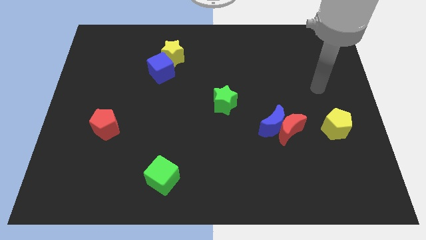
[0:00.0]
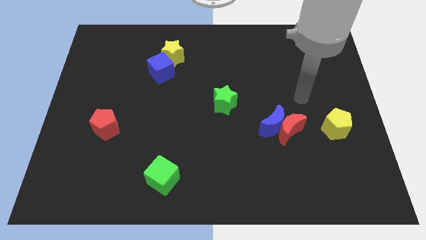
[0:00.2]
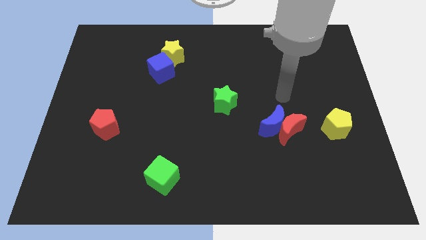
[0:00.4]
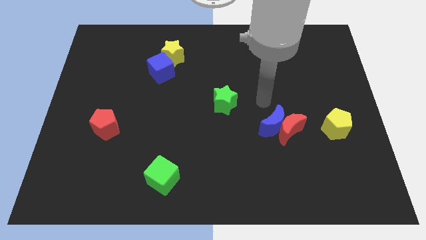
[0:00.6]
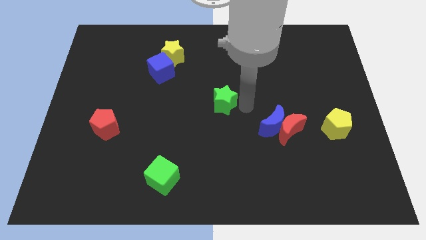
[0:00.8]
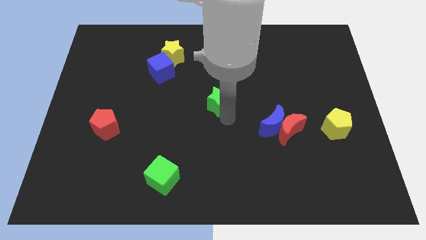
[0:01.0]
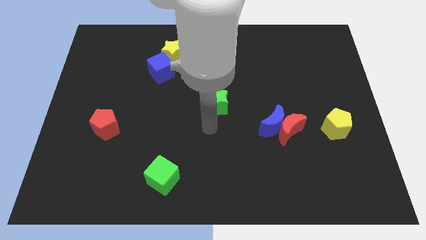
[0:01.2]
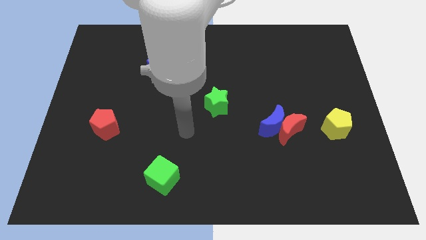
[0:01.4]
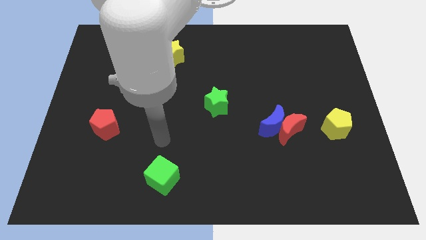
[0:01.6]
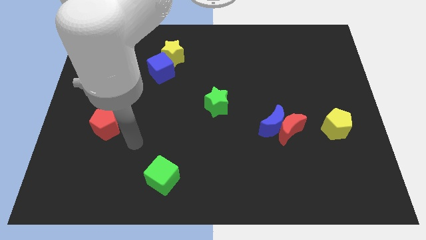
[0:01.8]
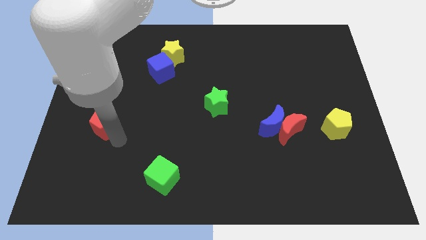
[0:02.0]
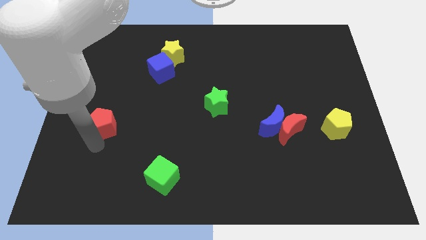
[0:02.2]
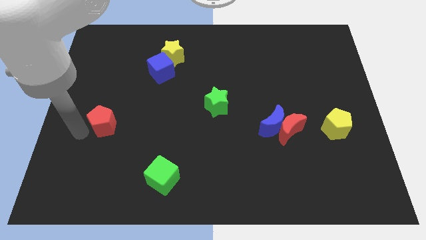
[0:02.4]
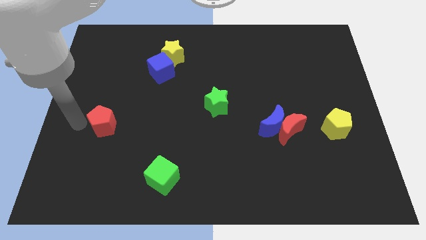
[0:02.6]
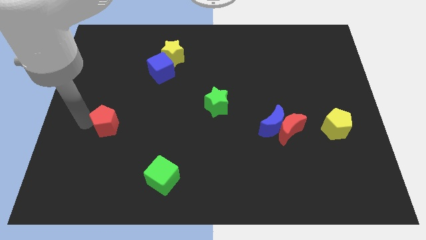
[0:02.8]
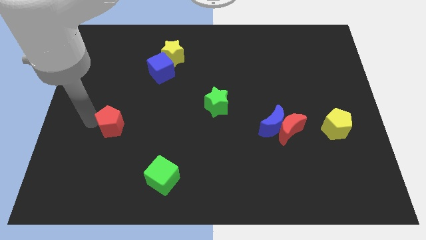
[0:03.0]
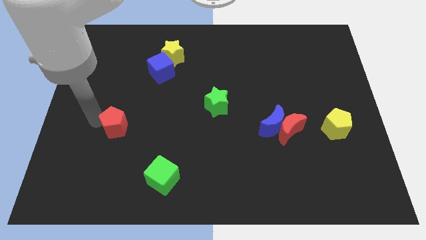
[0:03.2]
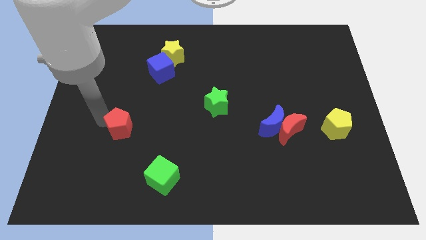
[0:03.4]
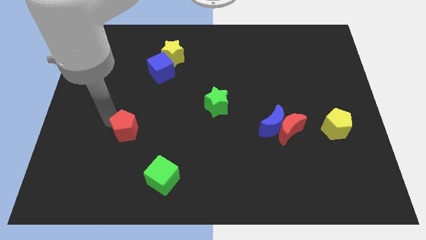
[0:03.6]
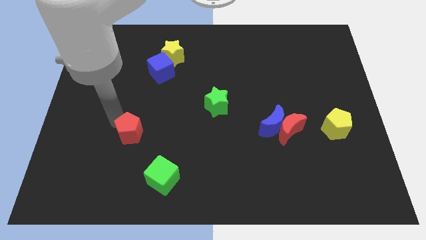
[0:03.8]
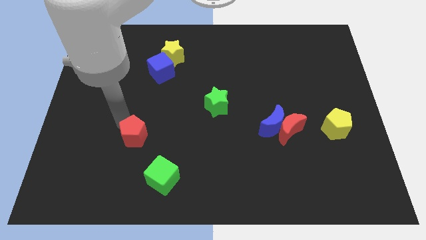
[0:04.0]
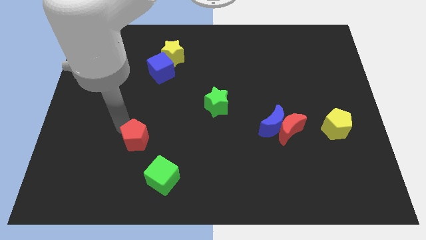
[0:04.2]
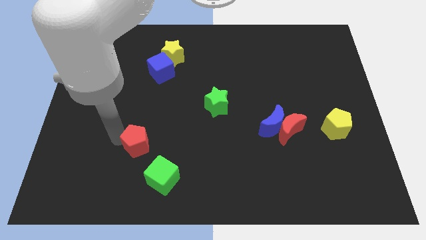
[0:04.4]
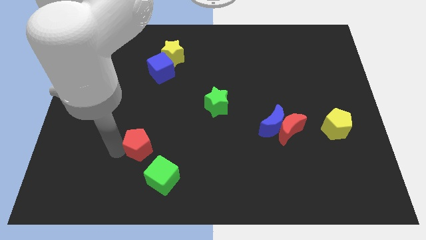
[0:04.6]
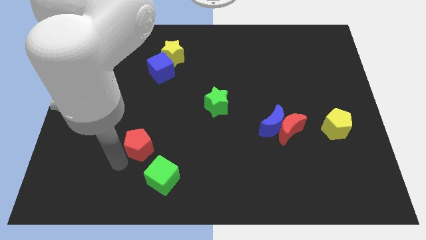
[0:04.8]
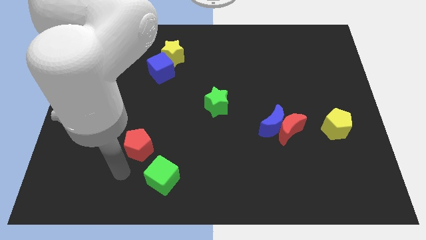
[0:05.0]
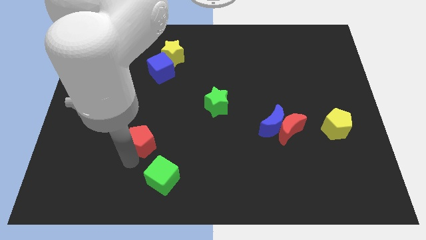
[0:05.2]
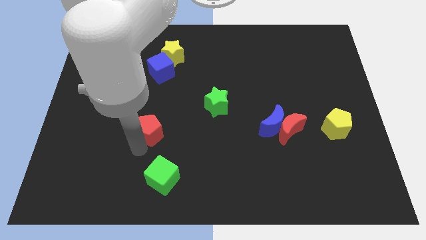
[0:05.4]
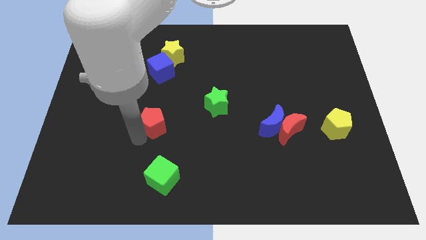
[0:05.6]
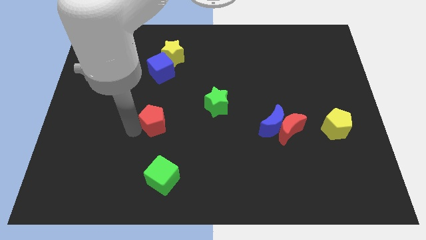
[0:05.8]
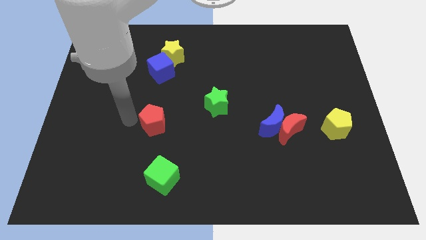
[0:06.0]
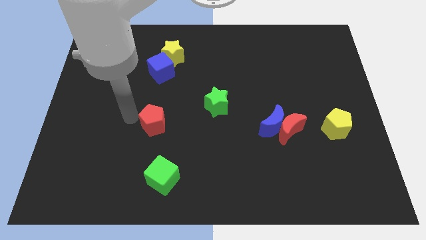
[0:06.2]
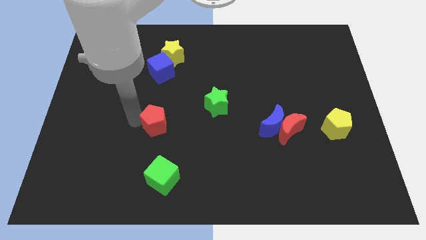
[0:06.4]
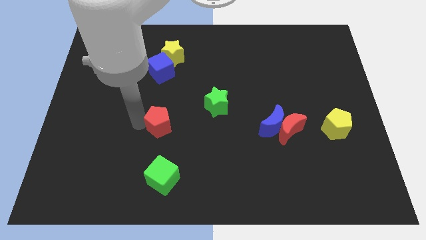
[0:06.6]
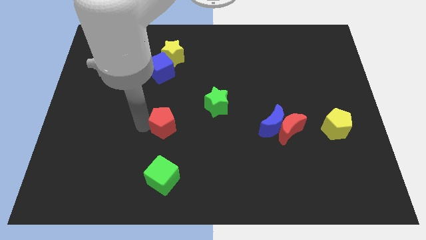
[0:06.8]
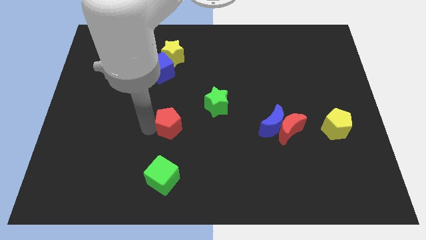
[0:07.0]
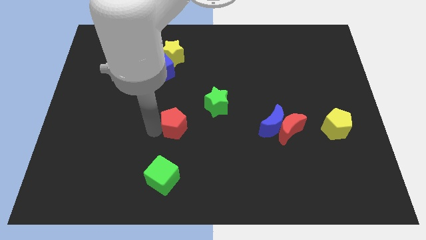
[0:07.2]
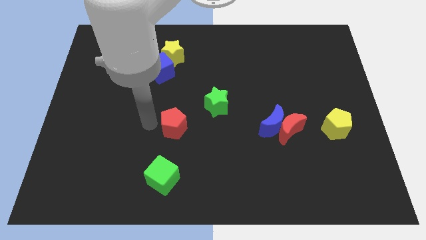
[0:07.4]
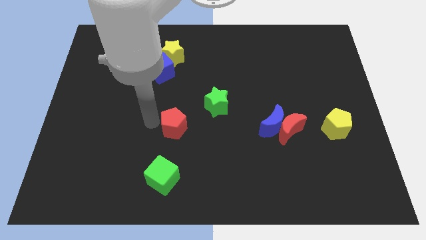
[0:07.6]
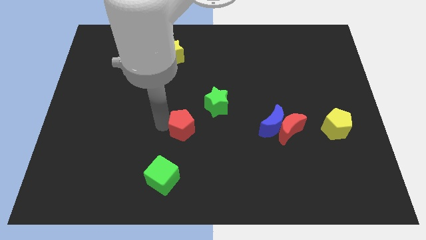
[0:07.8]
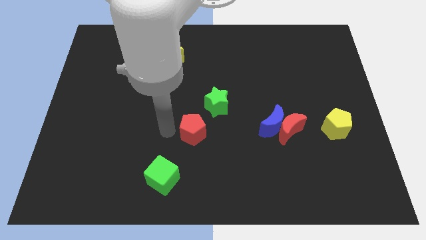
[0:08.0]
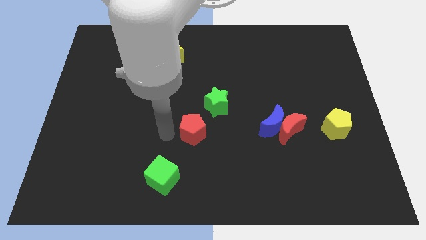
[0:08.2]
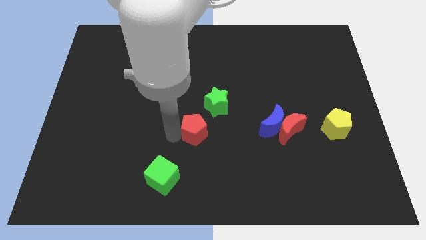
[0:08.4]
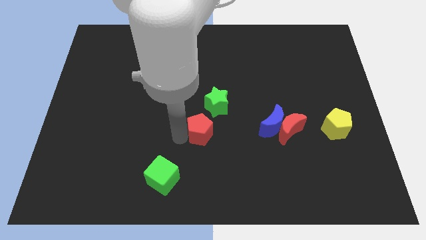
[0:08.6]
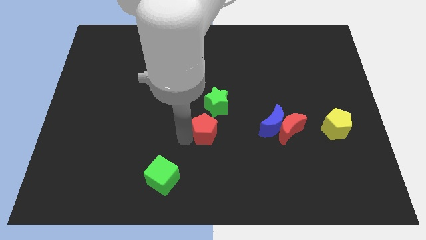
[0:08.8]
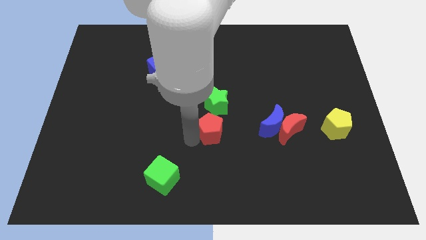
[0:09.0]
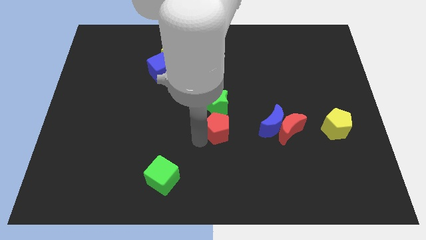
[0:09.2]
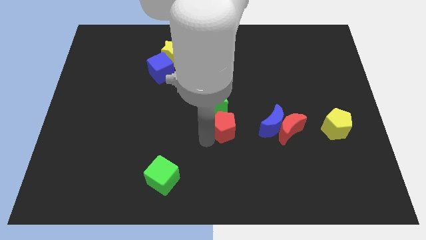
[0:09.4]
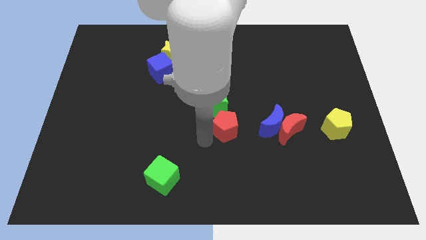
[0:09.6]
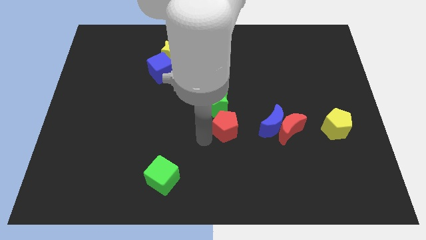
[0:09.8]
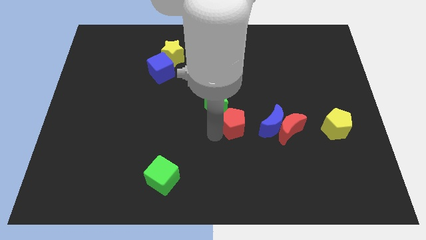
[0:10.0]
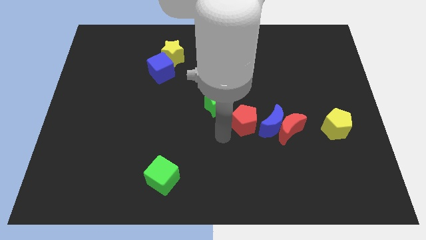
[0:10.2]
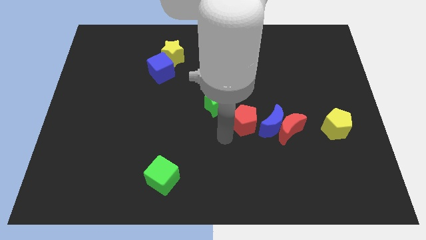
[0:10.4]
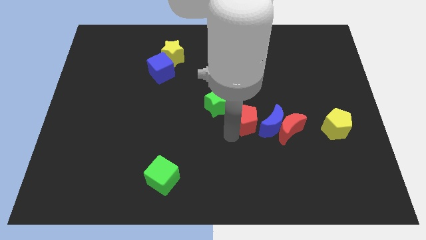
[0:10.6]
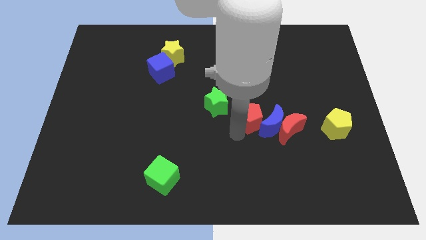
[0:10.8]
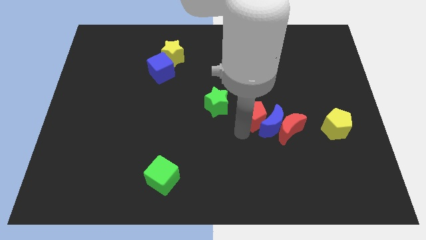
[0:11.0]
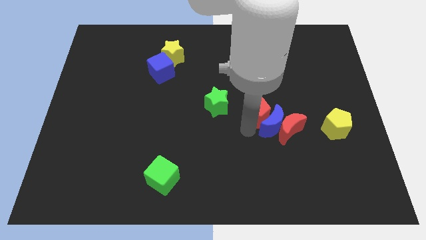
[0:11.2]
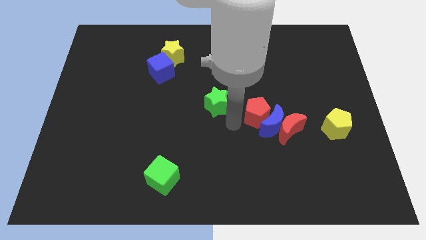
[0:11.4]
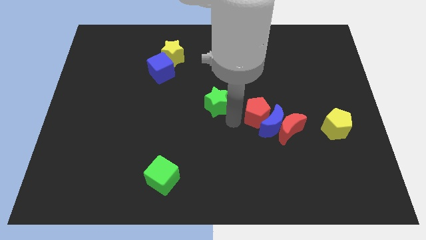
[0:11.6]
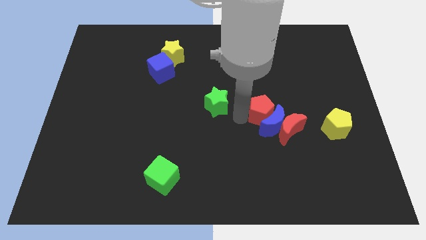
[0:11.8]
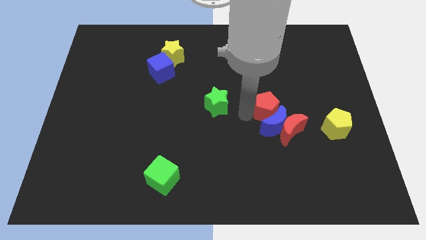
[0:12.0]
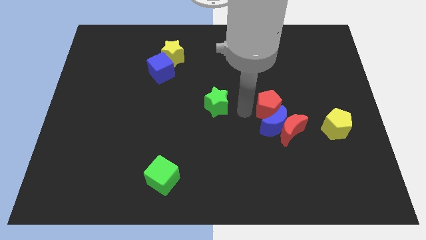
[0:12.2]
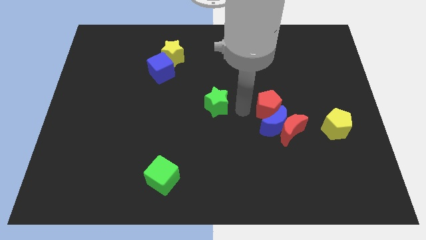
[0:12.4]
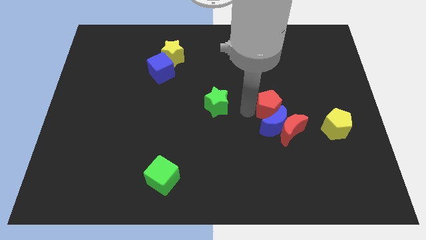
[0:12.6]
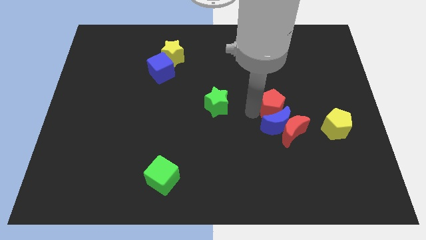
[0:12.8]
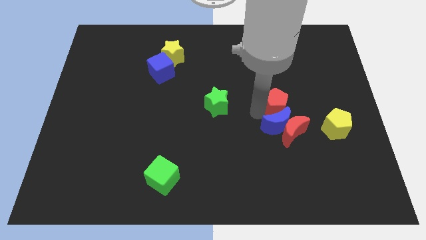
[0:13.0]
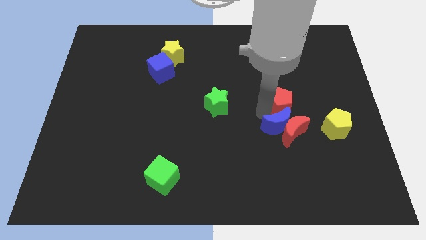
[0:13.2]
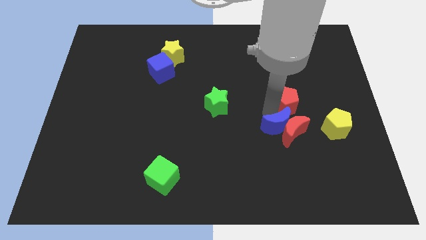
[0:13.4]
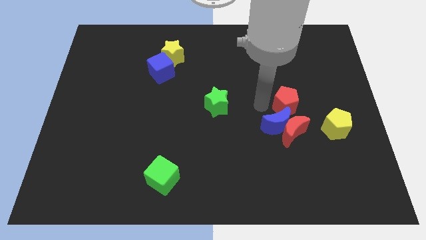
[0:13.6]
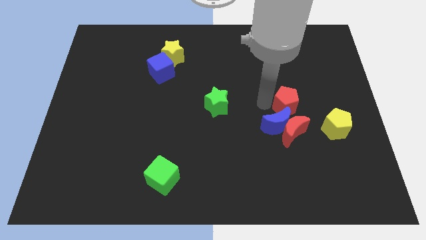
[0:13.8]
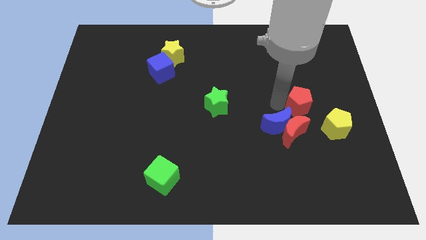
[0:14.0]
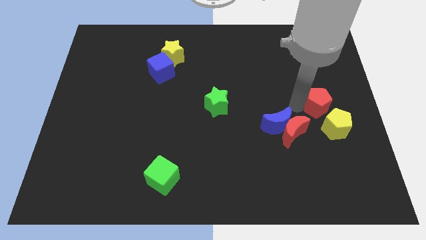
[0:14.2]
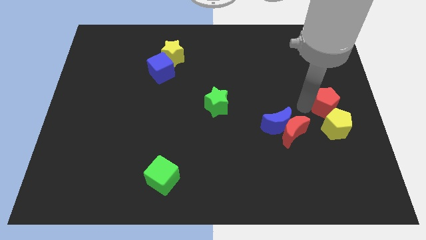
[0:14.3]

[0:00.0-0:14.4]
push the red pentagon to the center right

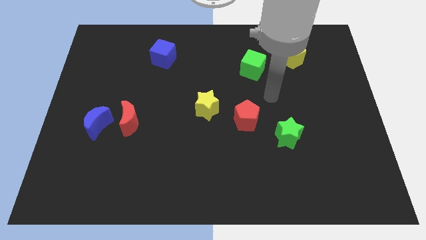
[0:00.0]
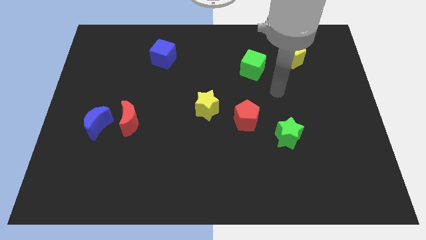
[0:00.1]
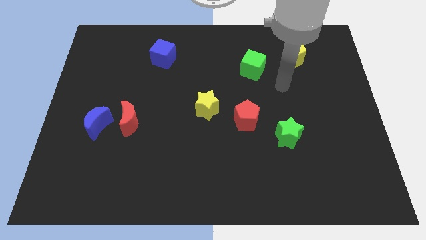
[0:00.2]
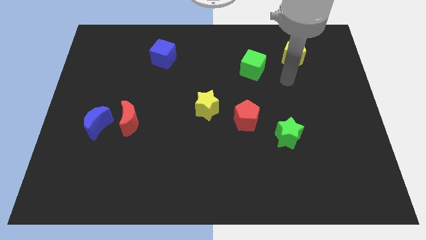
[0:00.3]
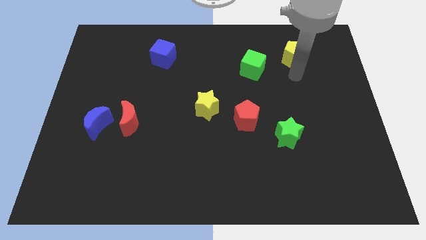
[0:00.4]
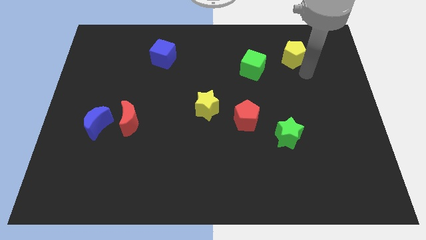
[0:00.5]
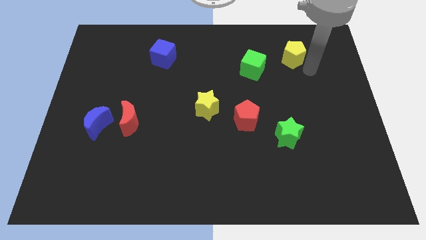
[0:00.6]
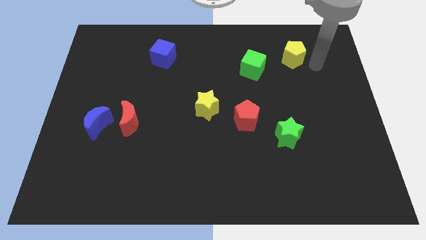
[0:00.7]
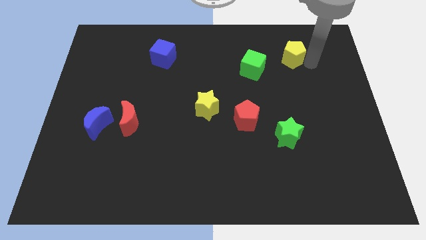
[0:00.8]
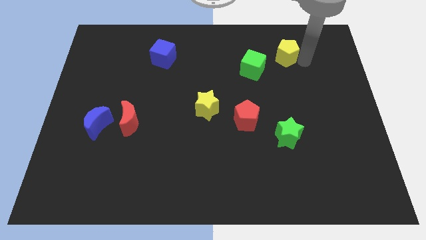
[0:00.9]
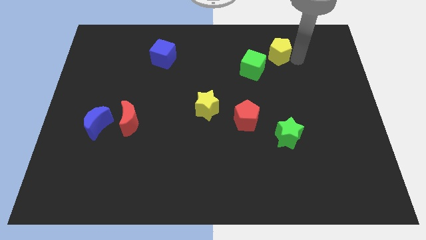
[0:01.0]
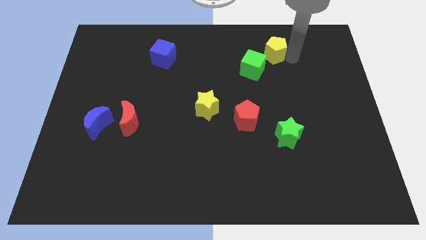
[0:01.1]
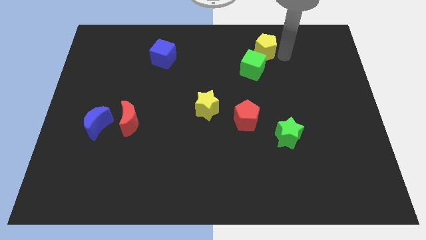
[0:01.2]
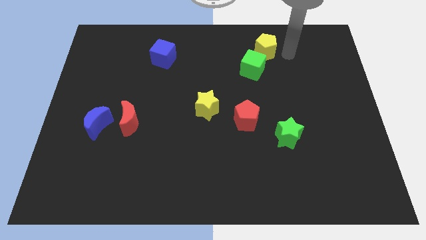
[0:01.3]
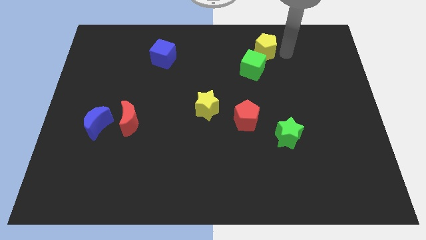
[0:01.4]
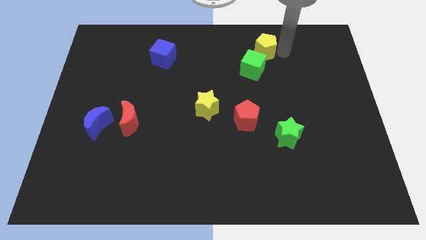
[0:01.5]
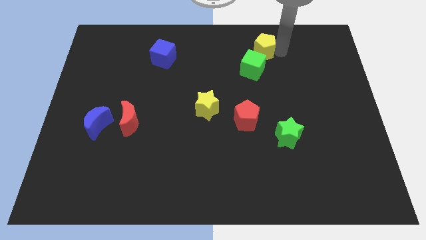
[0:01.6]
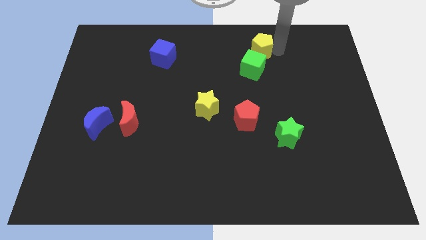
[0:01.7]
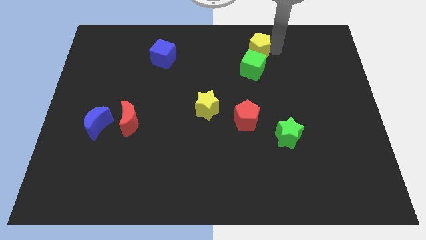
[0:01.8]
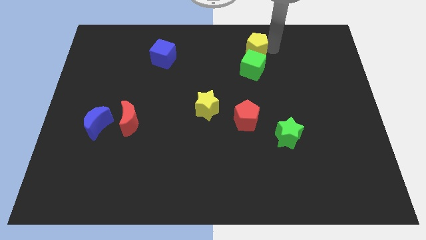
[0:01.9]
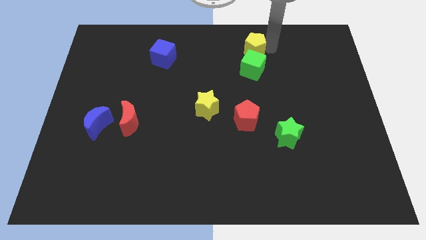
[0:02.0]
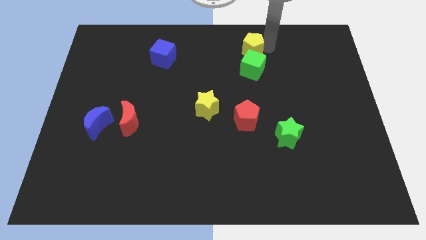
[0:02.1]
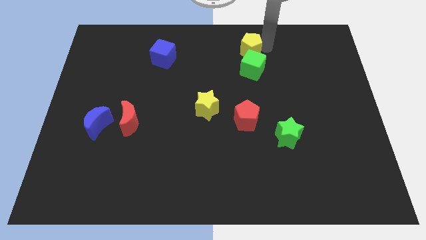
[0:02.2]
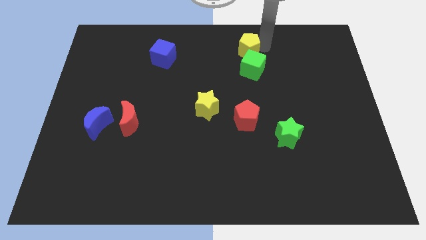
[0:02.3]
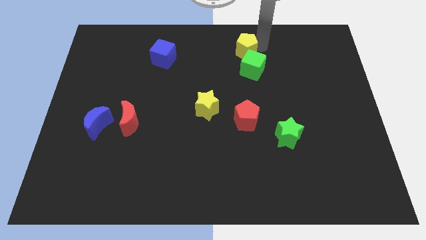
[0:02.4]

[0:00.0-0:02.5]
push the yellow pentagon to the top side
